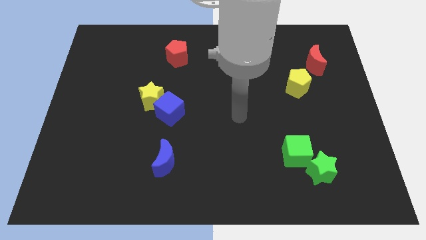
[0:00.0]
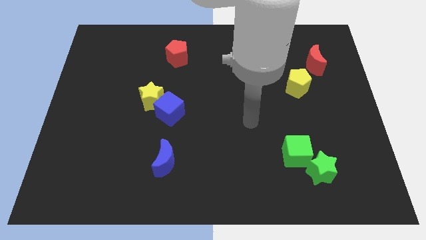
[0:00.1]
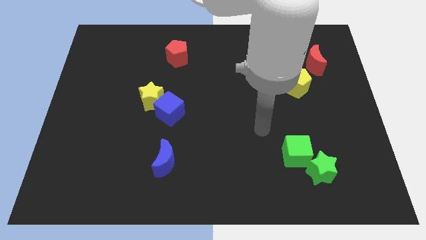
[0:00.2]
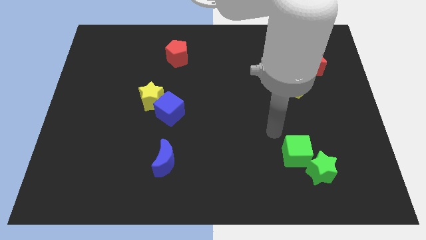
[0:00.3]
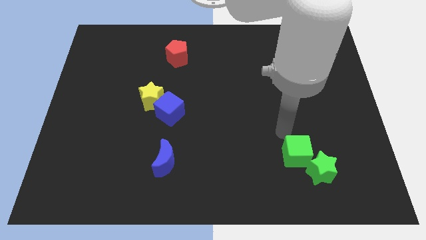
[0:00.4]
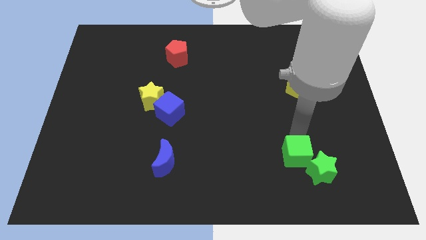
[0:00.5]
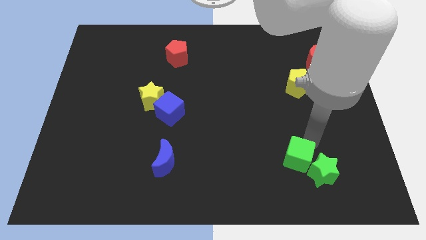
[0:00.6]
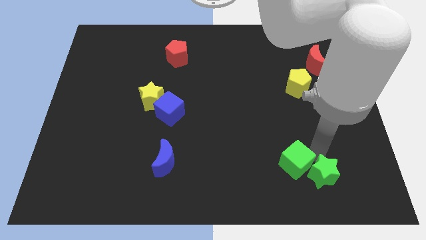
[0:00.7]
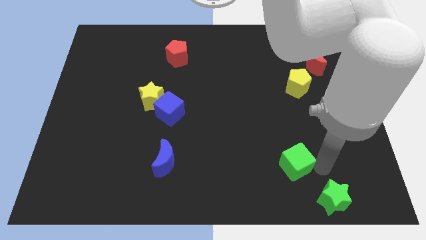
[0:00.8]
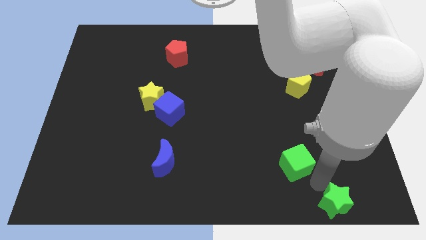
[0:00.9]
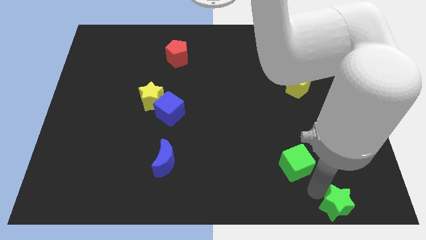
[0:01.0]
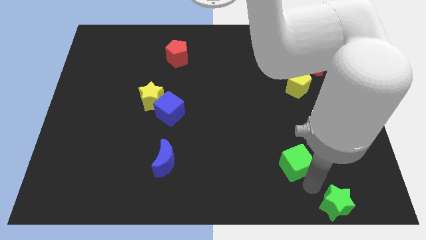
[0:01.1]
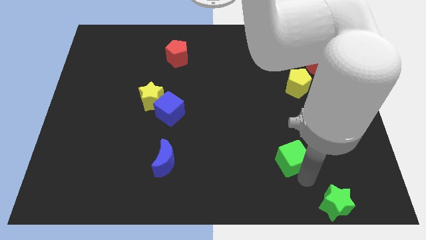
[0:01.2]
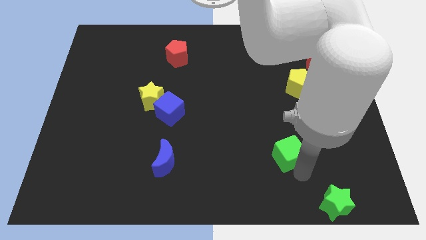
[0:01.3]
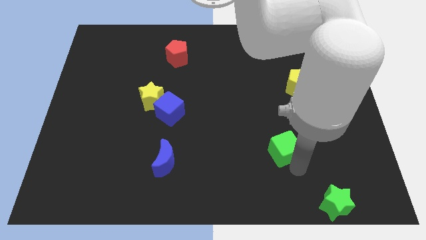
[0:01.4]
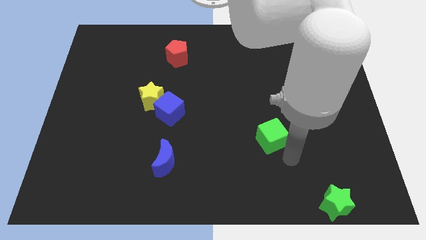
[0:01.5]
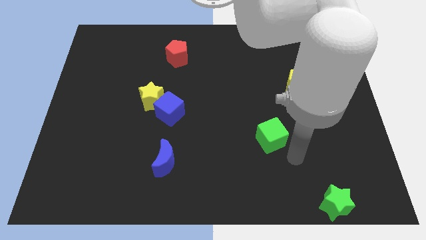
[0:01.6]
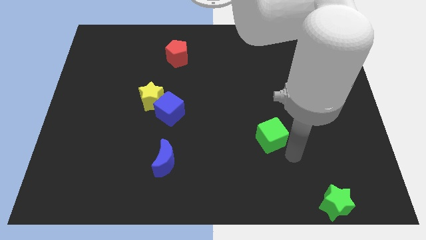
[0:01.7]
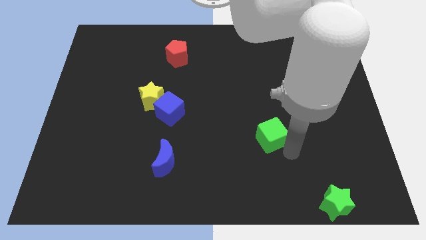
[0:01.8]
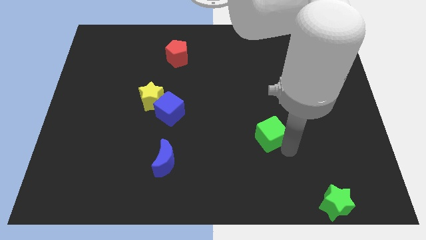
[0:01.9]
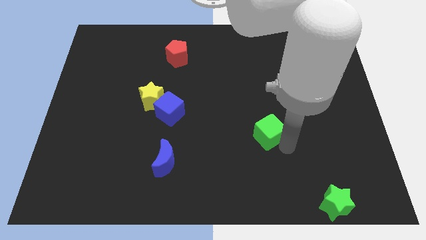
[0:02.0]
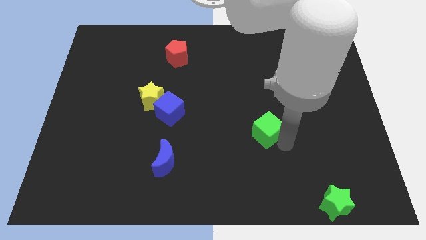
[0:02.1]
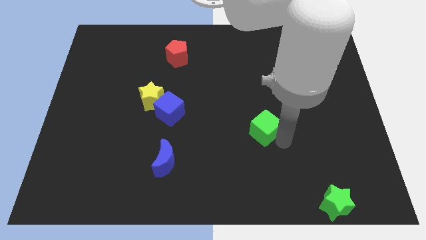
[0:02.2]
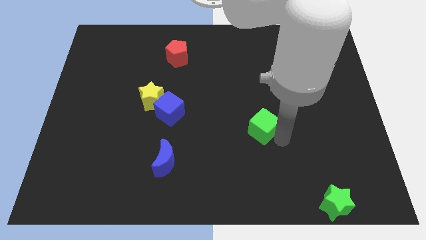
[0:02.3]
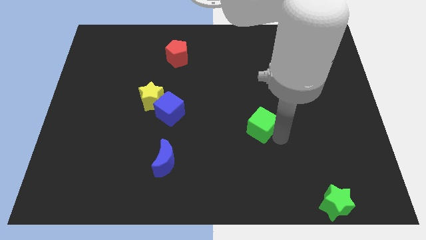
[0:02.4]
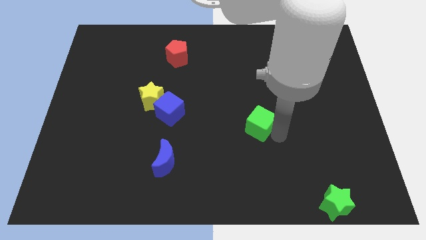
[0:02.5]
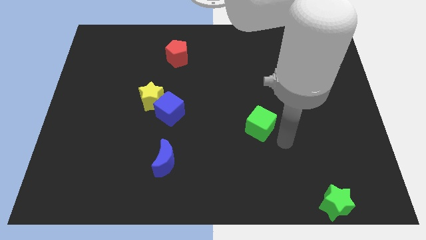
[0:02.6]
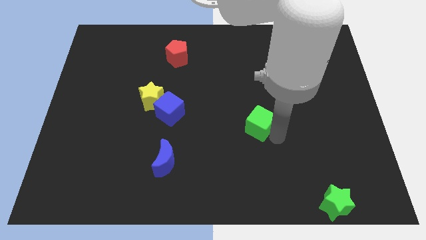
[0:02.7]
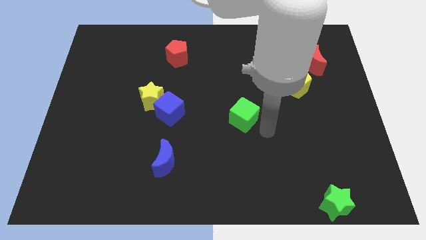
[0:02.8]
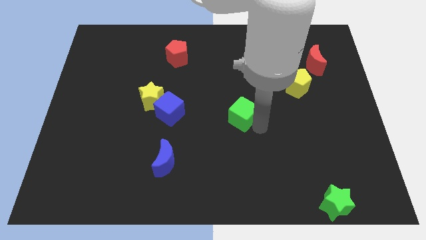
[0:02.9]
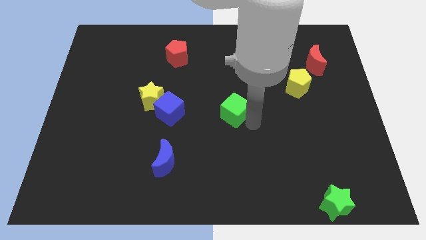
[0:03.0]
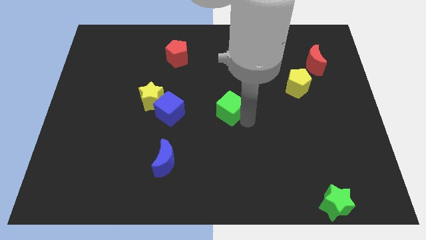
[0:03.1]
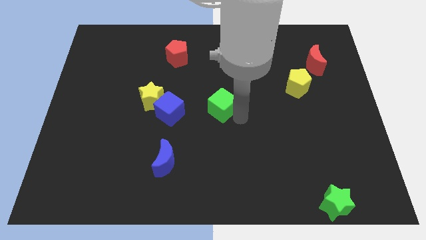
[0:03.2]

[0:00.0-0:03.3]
slide the green cube diagonally upwards and to the left

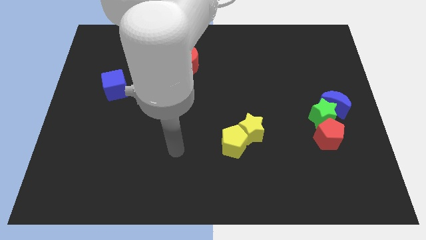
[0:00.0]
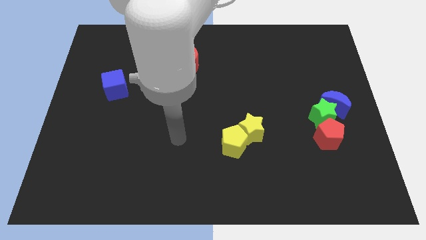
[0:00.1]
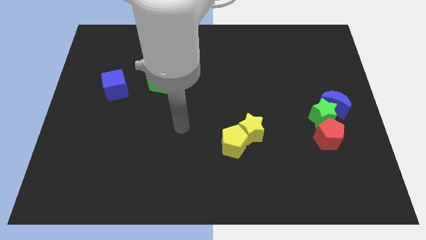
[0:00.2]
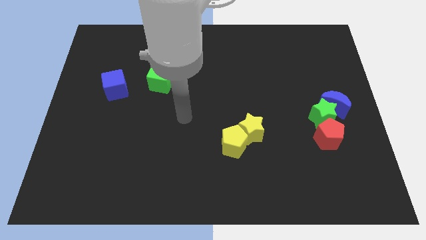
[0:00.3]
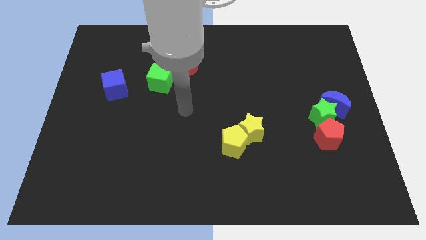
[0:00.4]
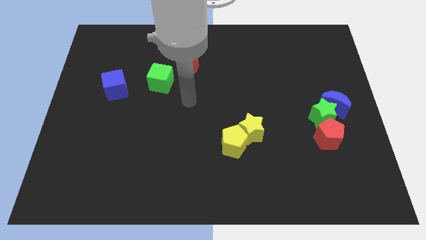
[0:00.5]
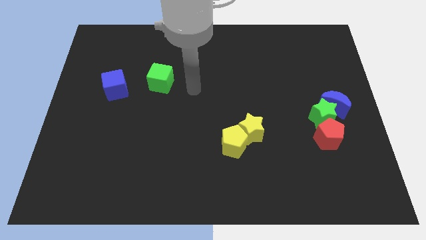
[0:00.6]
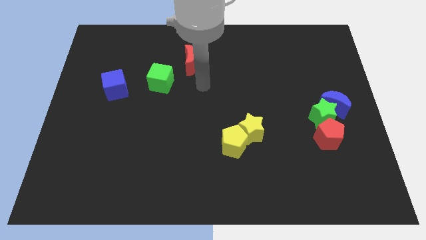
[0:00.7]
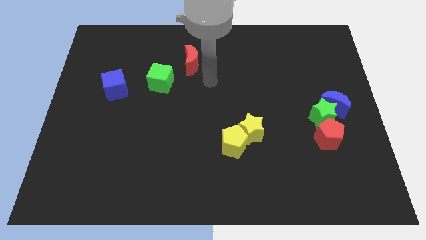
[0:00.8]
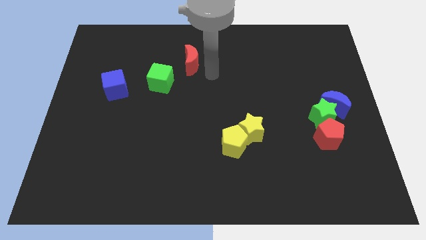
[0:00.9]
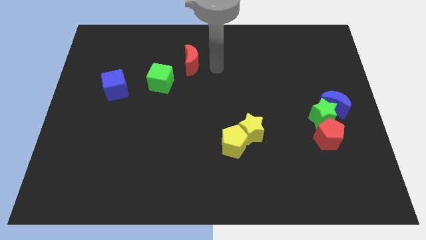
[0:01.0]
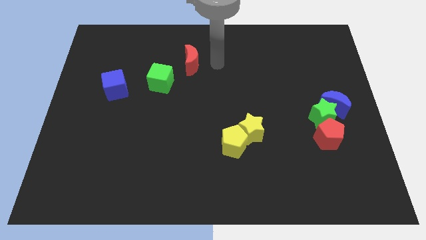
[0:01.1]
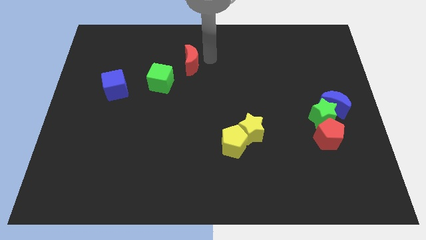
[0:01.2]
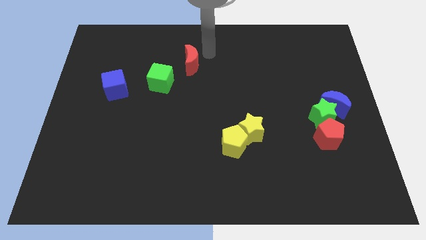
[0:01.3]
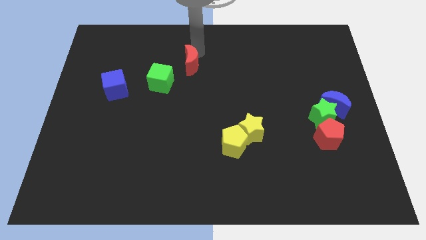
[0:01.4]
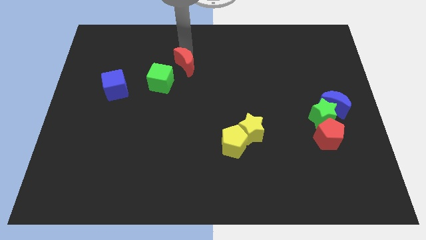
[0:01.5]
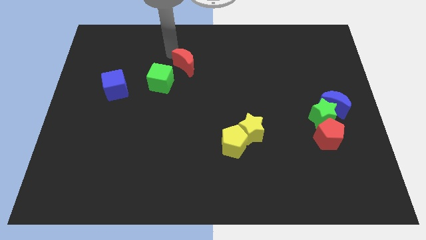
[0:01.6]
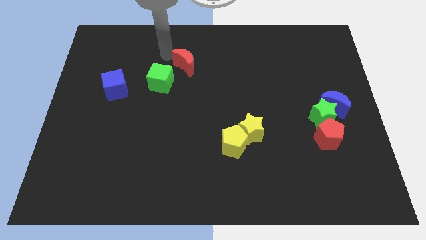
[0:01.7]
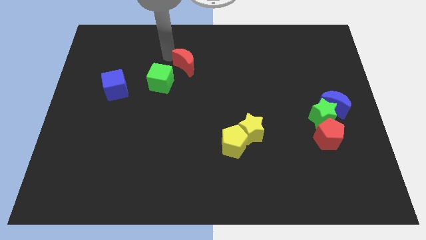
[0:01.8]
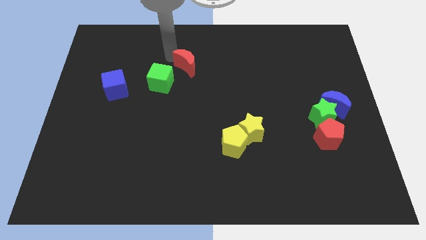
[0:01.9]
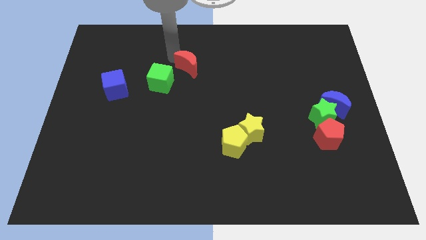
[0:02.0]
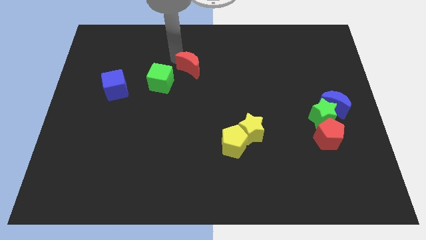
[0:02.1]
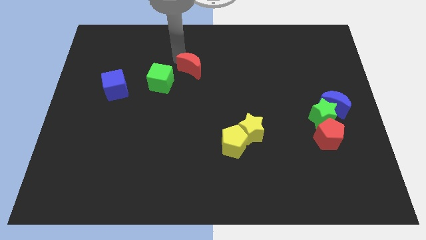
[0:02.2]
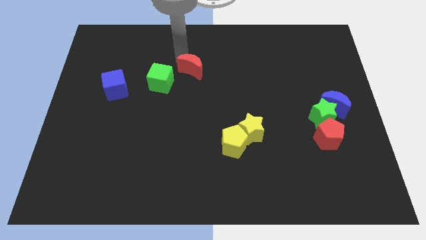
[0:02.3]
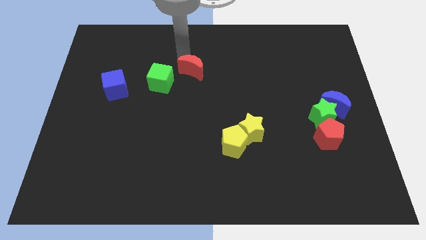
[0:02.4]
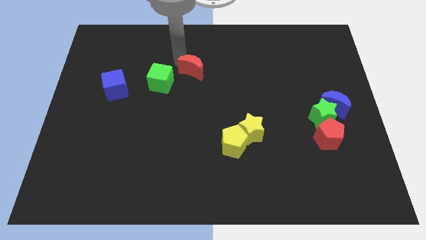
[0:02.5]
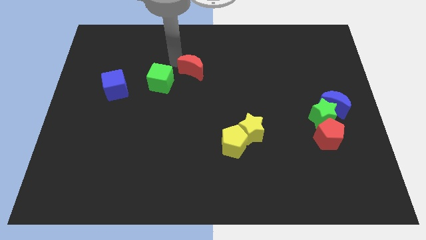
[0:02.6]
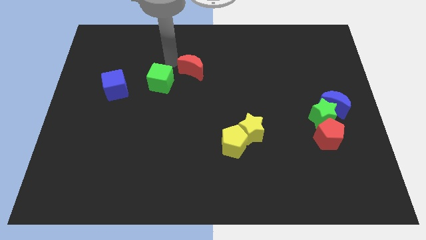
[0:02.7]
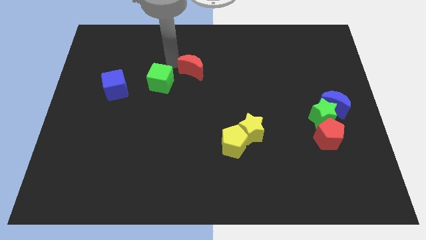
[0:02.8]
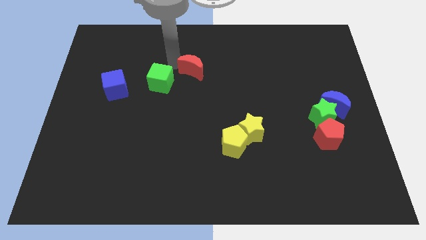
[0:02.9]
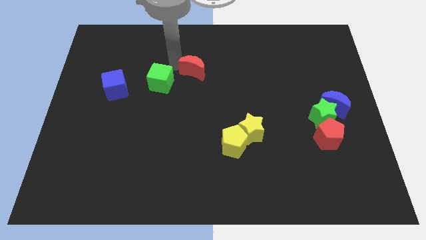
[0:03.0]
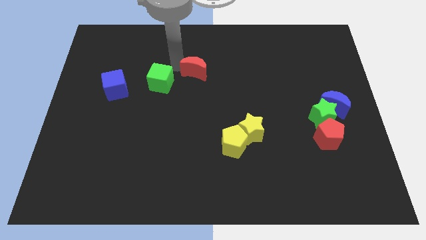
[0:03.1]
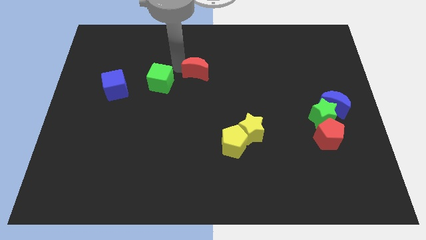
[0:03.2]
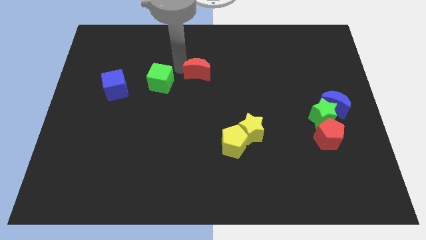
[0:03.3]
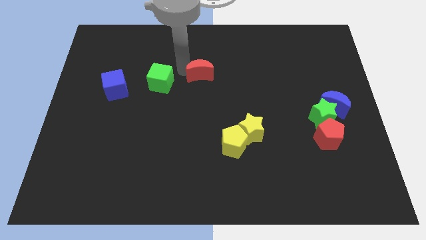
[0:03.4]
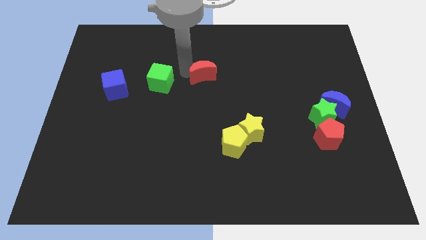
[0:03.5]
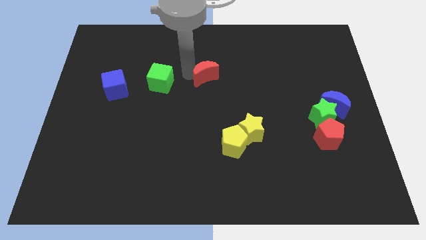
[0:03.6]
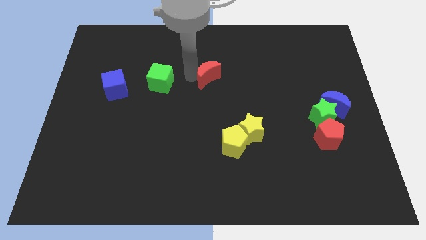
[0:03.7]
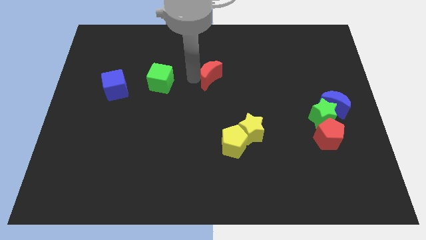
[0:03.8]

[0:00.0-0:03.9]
slightly slide the red moon downwards and then to the right

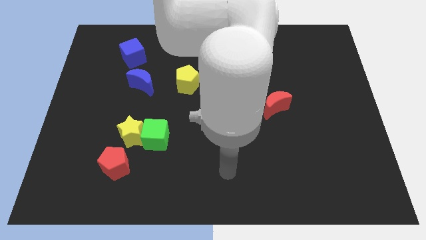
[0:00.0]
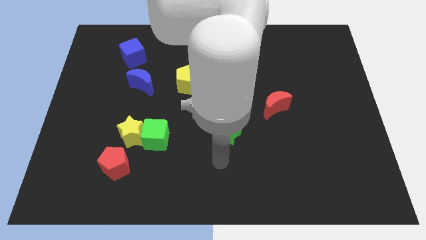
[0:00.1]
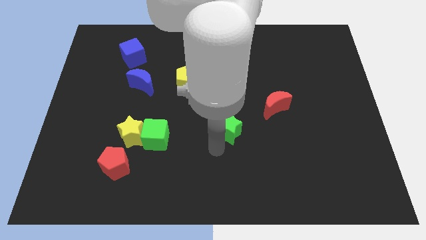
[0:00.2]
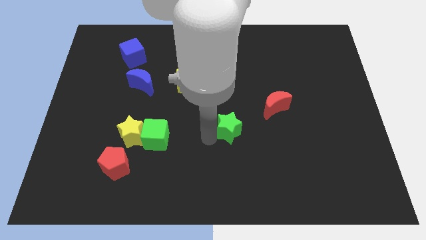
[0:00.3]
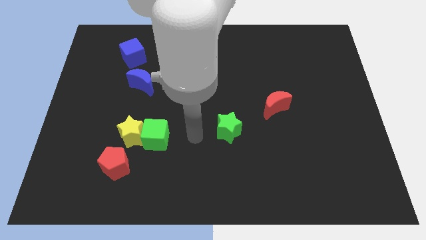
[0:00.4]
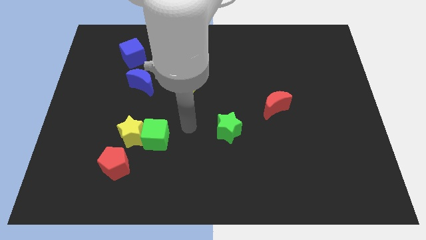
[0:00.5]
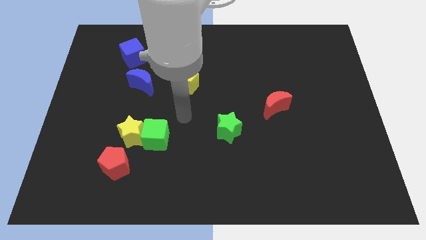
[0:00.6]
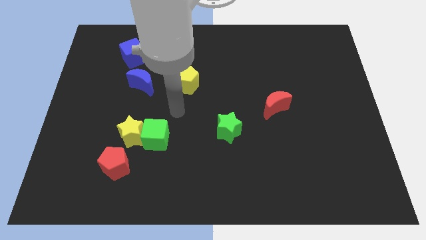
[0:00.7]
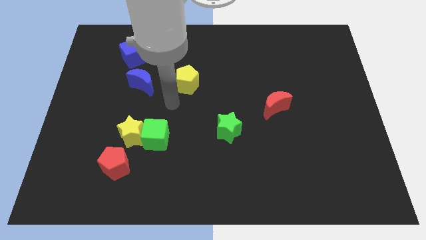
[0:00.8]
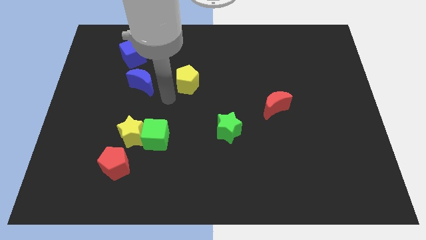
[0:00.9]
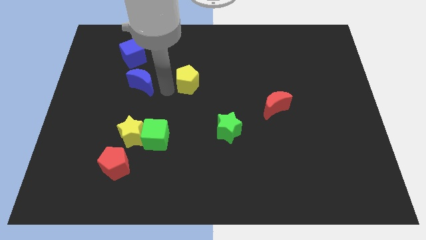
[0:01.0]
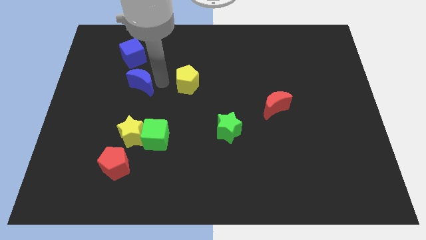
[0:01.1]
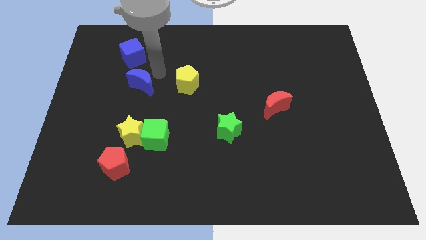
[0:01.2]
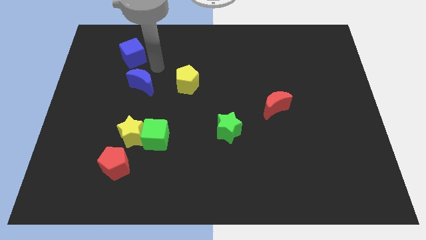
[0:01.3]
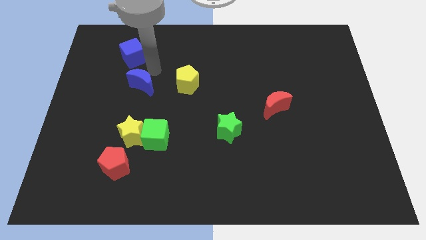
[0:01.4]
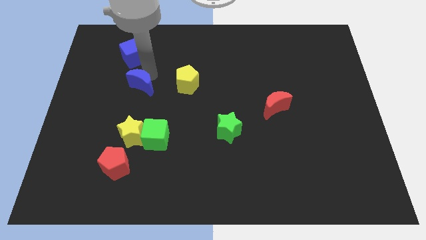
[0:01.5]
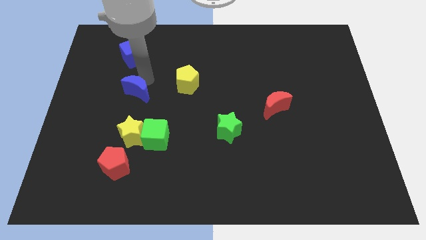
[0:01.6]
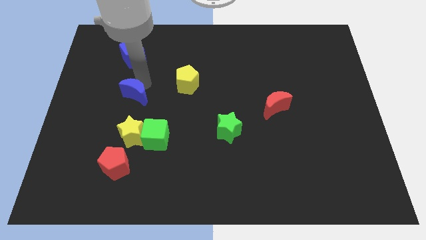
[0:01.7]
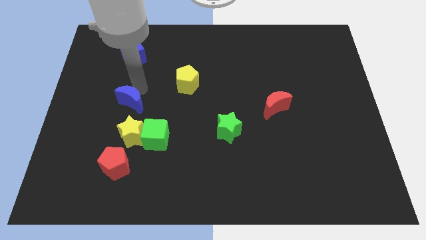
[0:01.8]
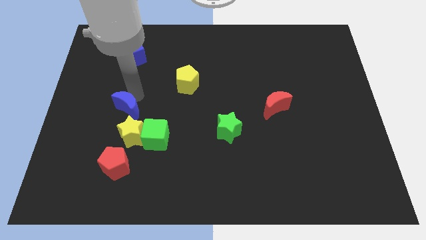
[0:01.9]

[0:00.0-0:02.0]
push the blue moon downwards a little bit
